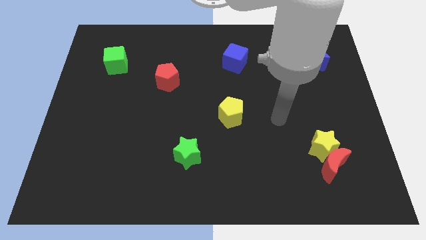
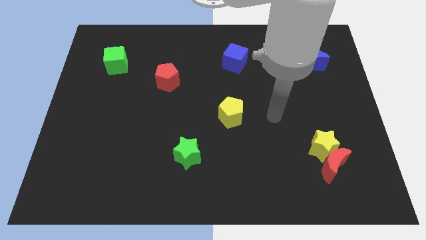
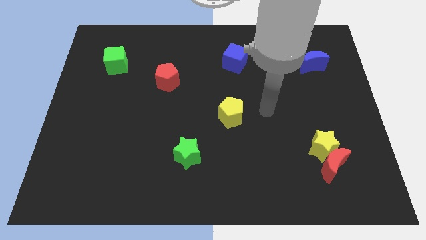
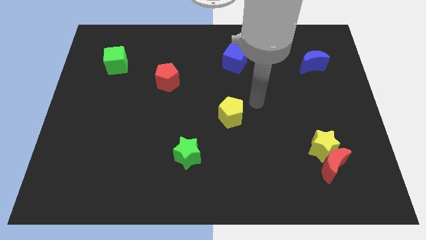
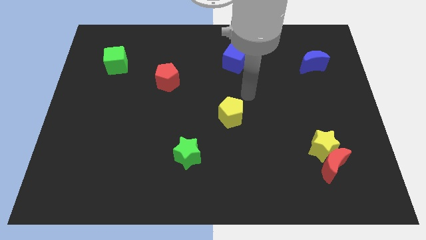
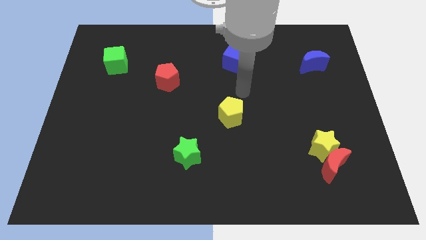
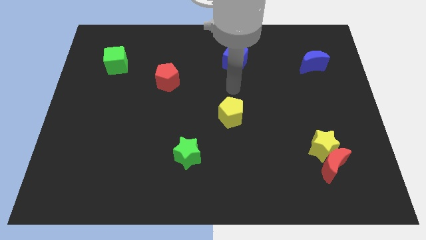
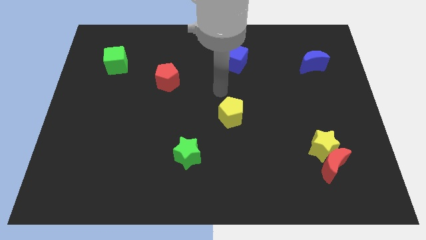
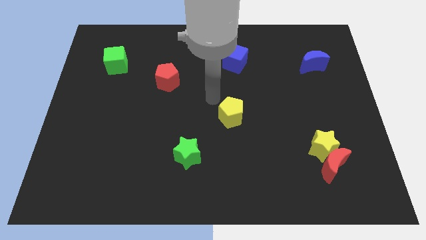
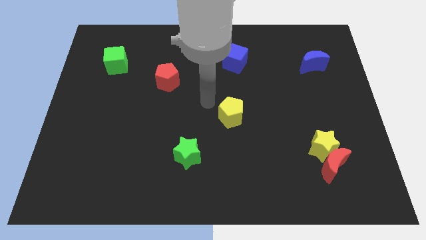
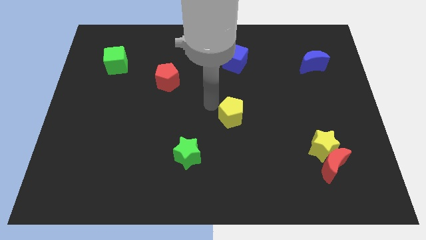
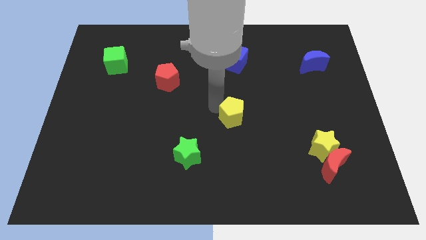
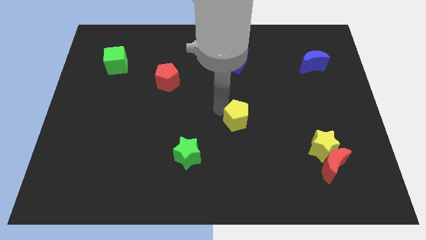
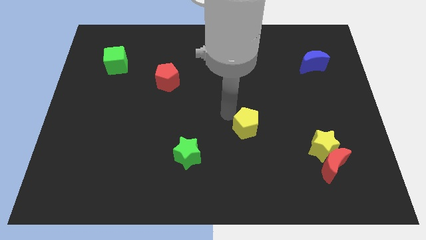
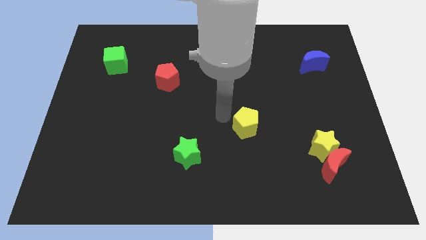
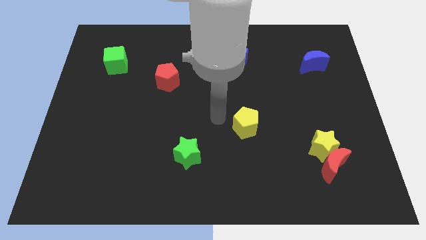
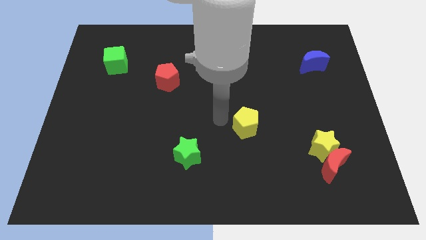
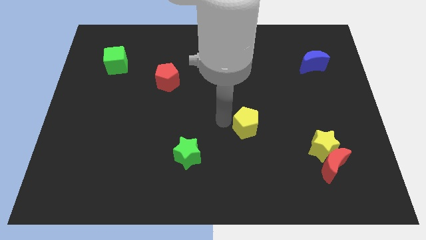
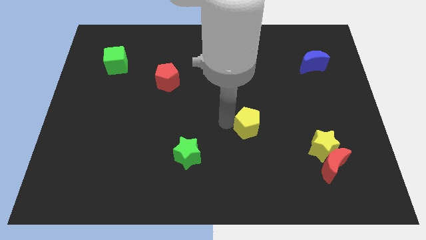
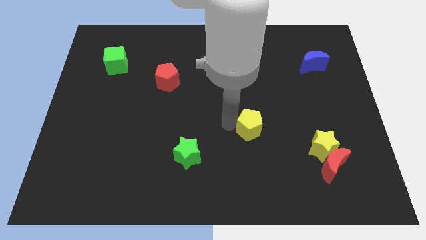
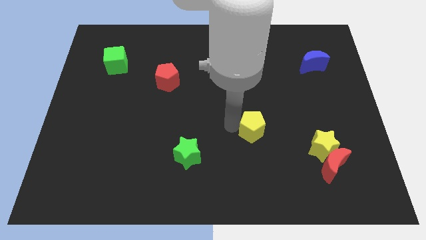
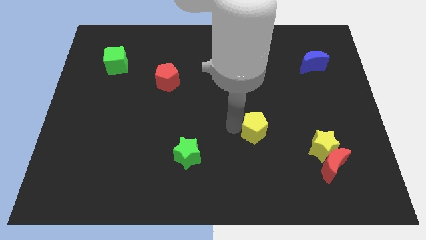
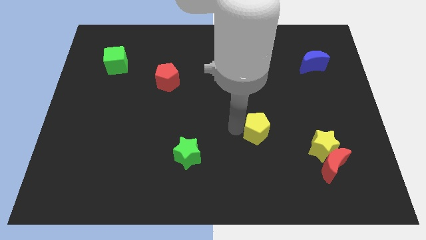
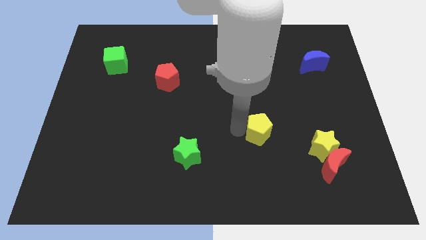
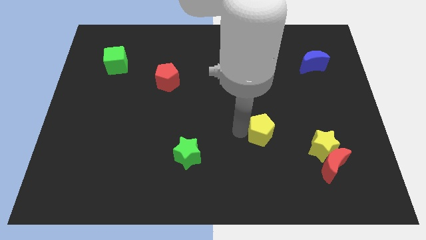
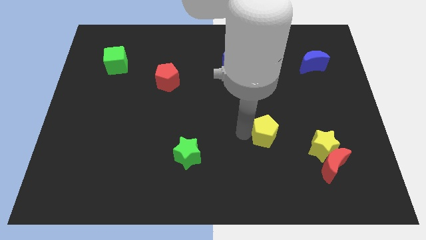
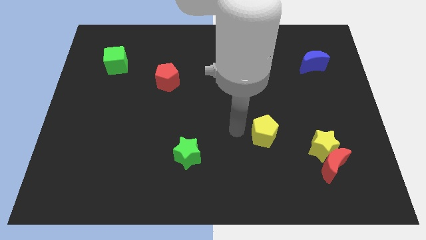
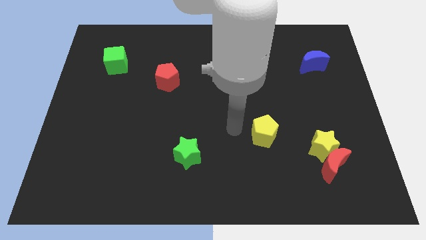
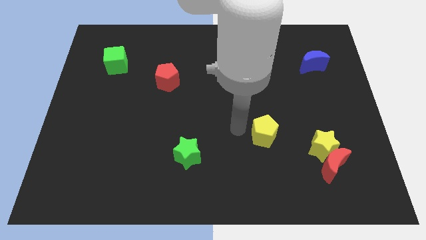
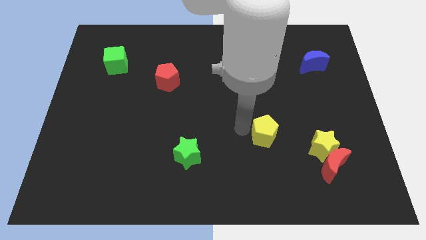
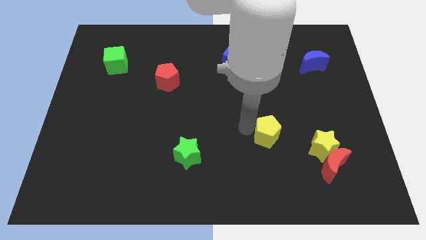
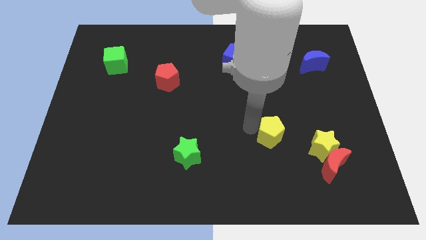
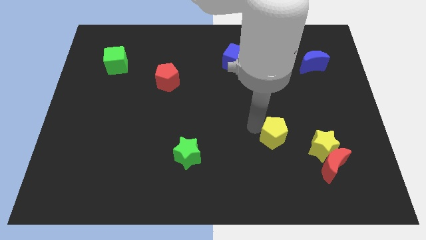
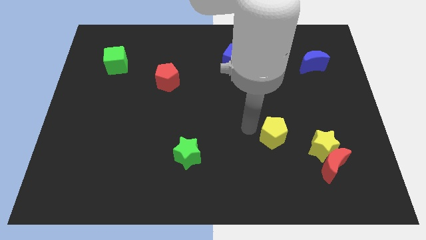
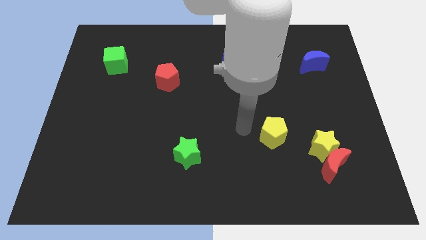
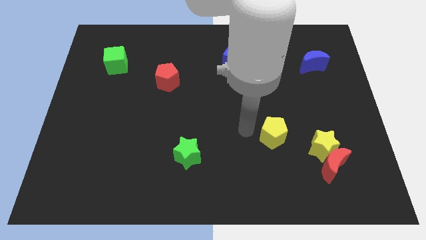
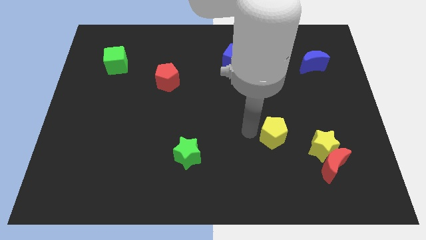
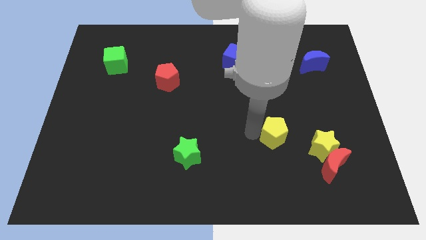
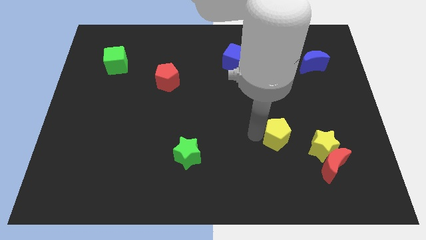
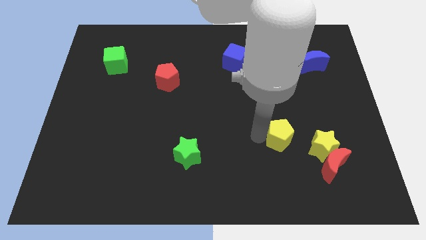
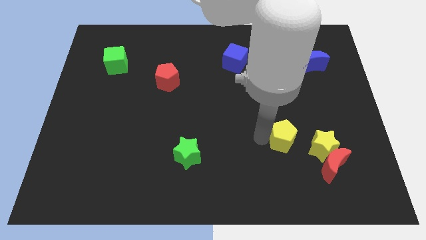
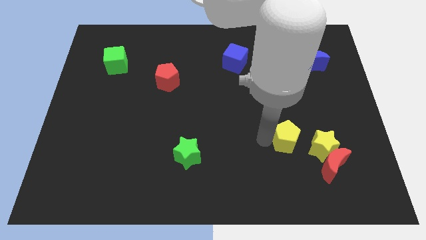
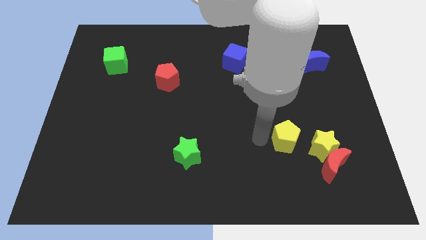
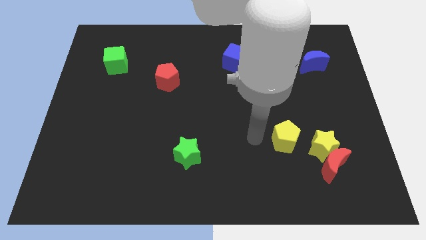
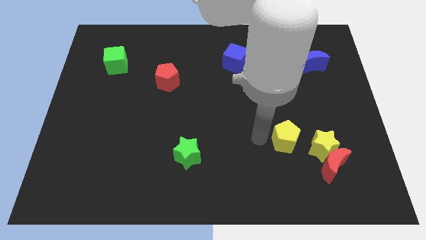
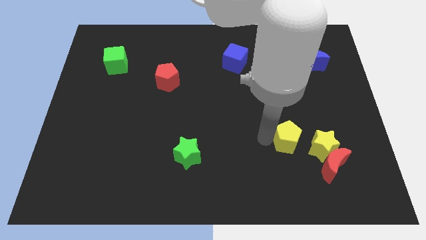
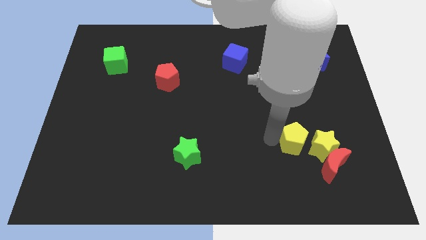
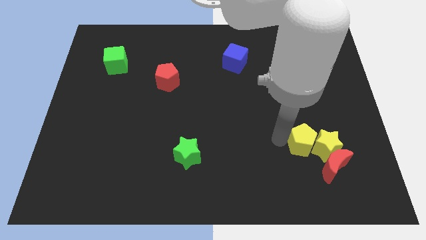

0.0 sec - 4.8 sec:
push the yellow pentagon next to the yellow star

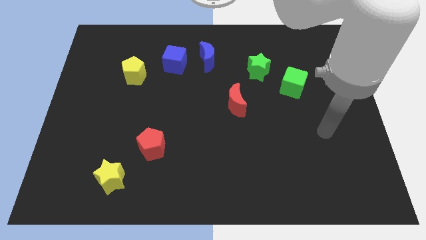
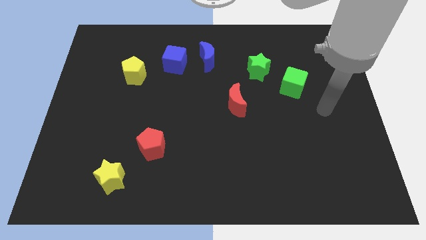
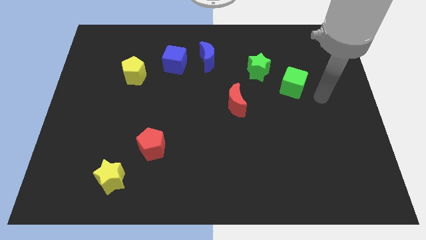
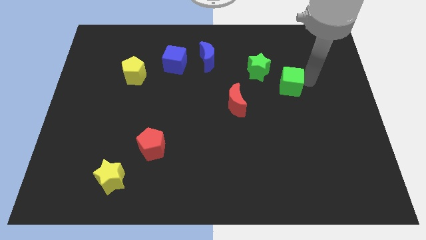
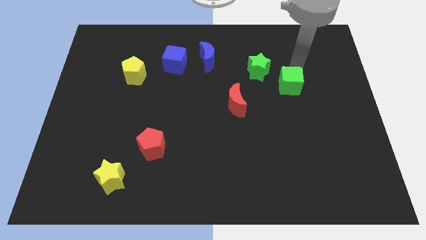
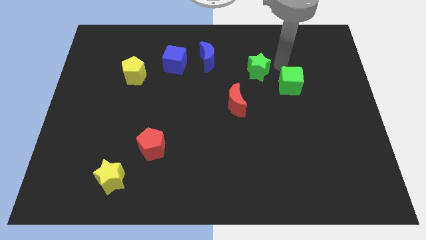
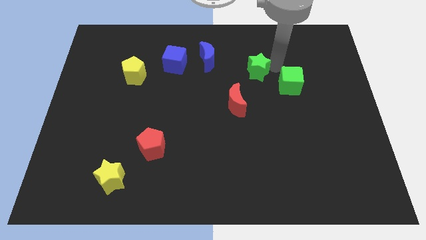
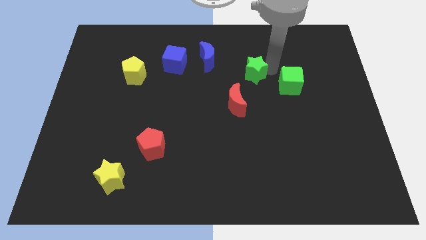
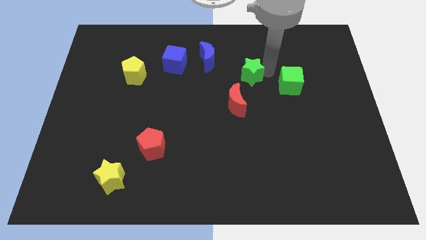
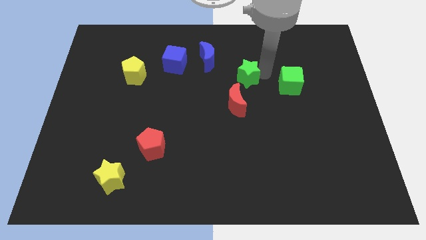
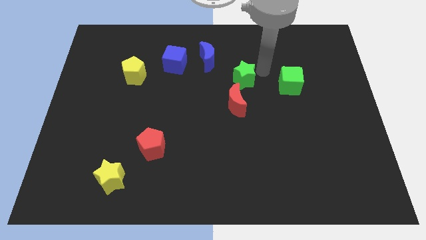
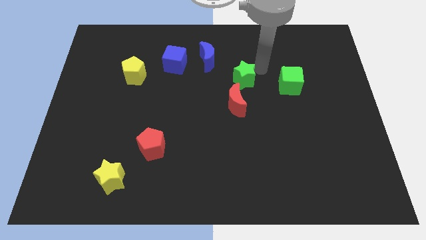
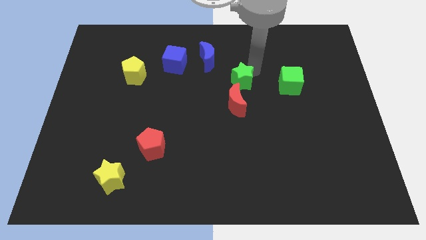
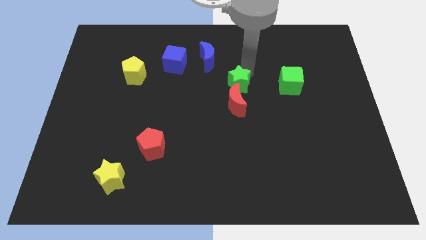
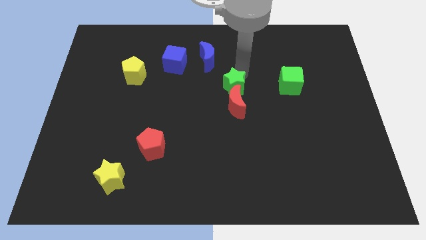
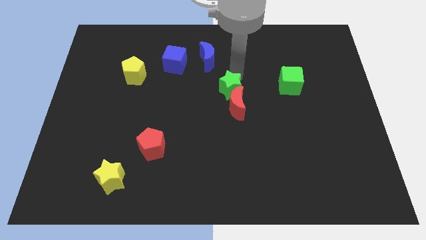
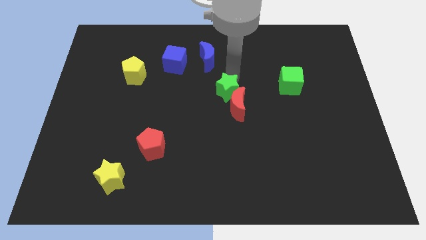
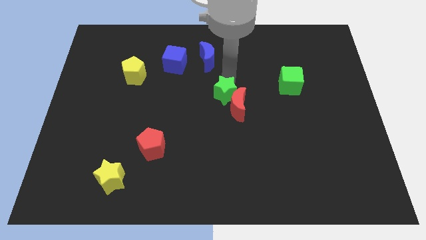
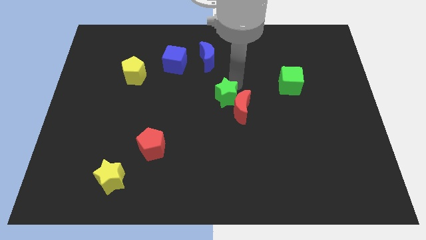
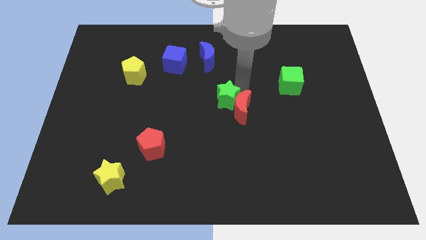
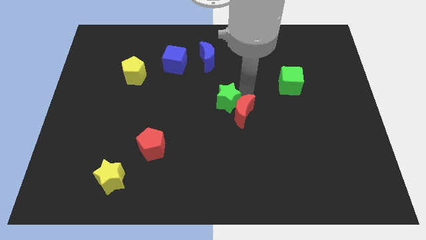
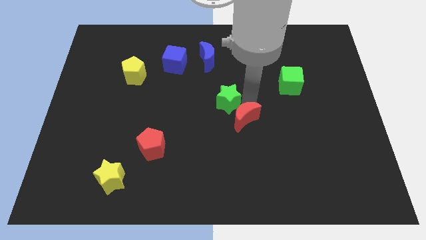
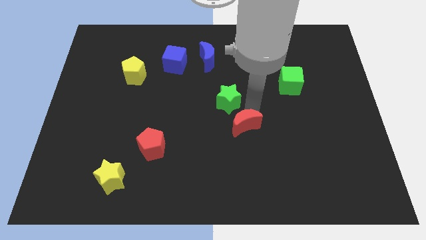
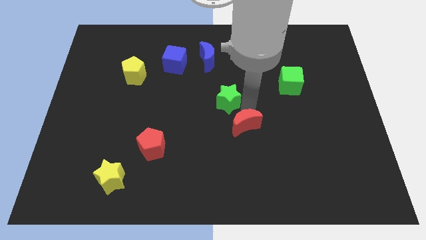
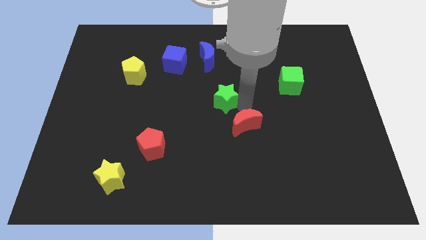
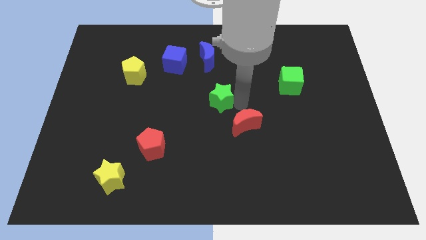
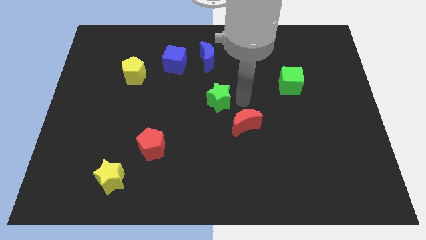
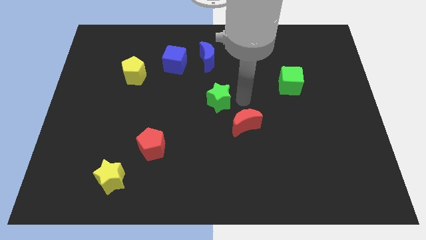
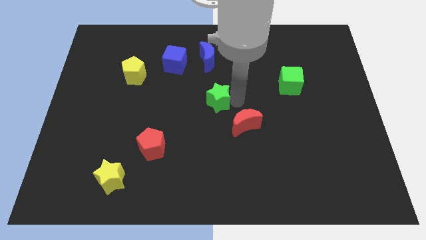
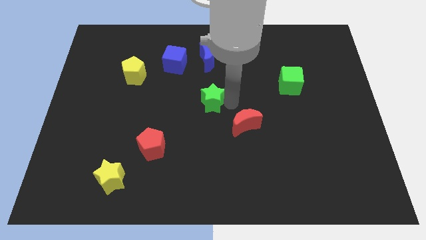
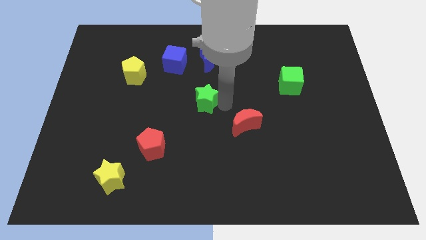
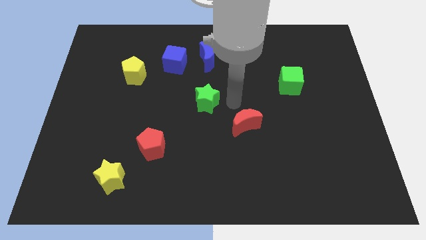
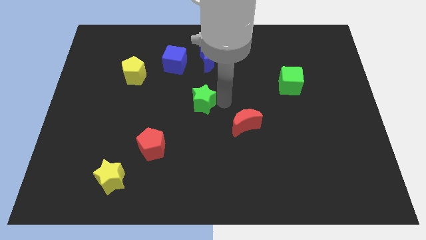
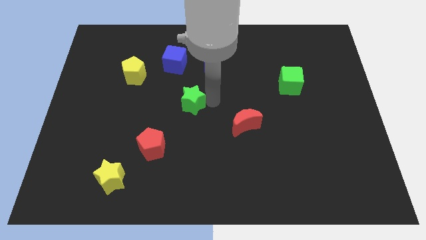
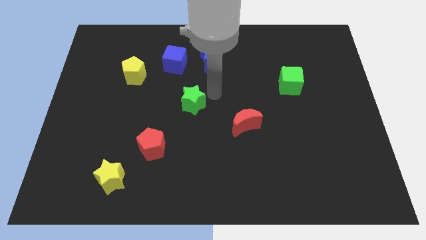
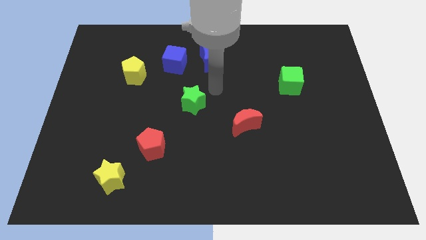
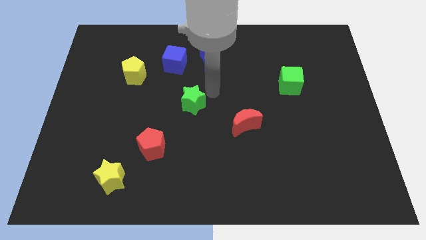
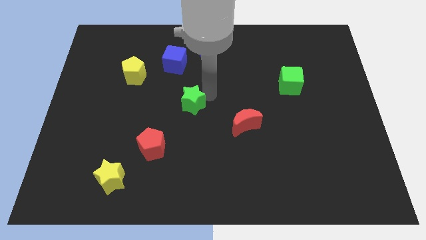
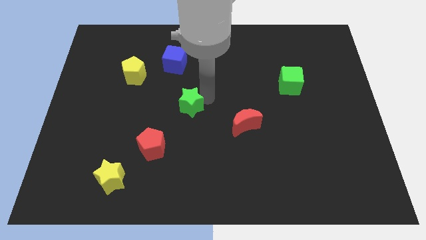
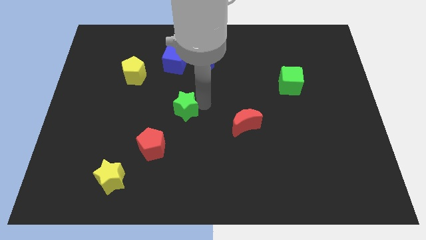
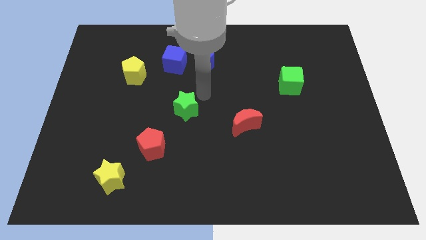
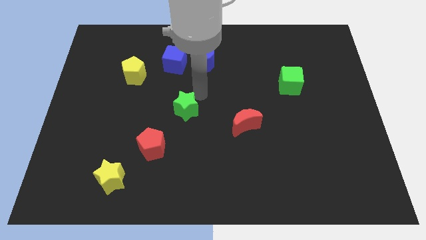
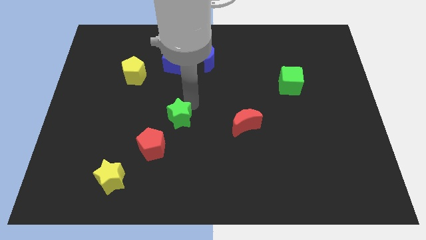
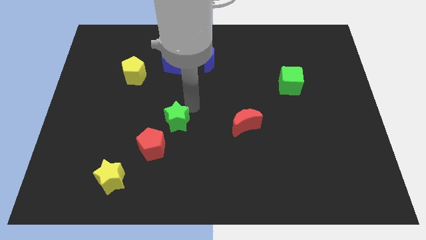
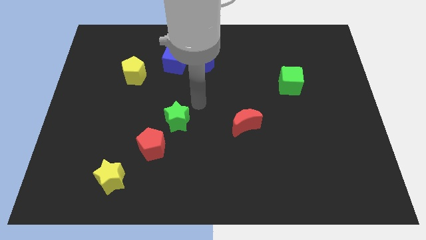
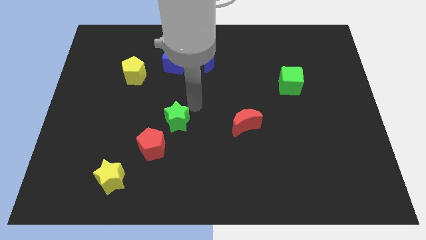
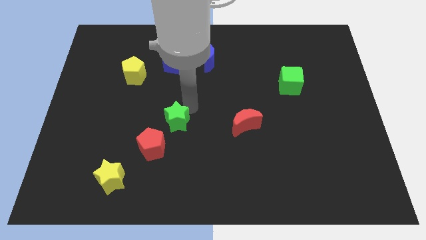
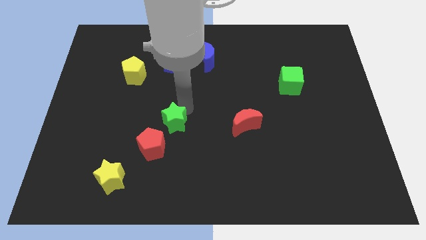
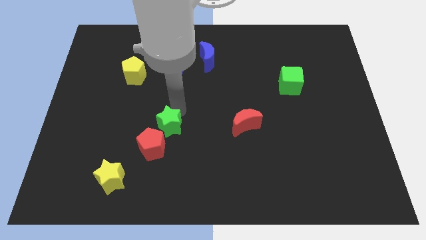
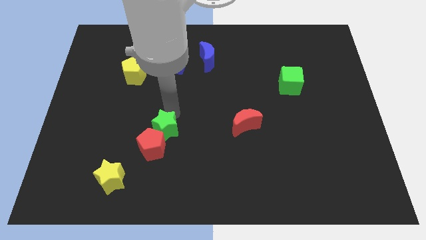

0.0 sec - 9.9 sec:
push the green star to the red pentagon
